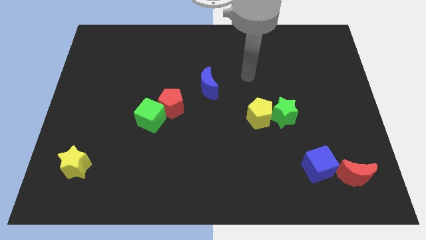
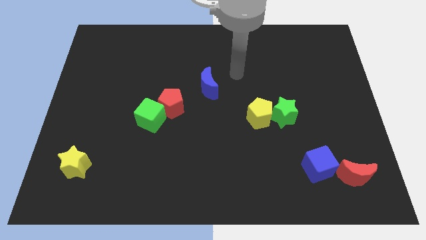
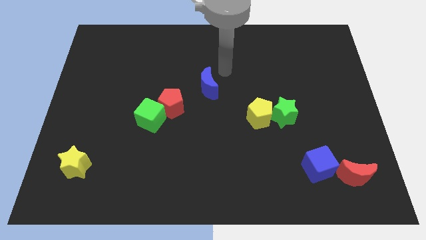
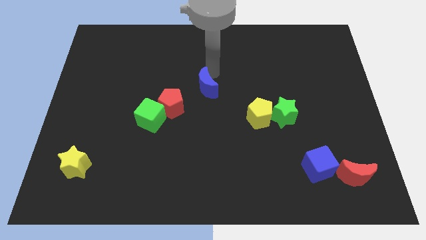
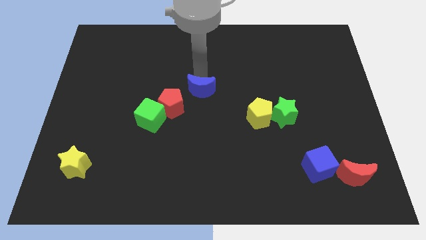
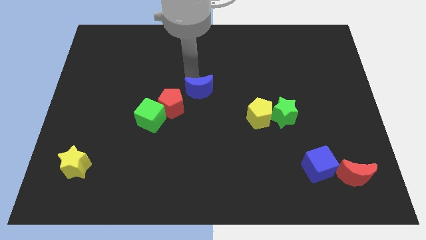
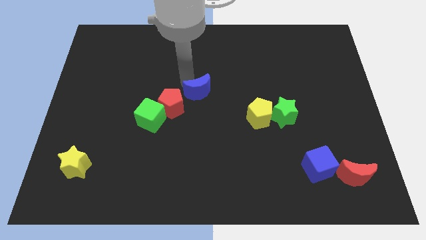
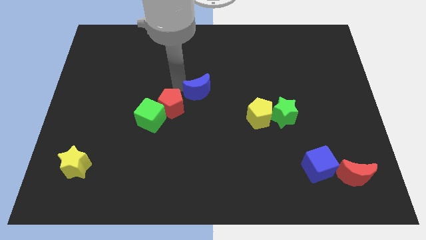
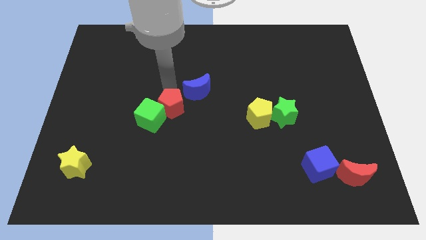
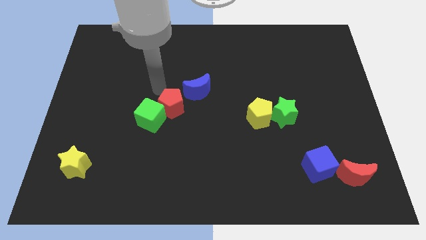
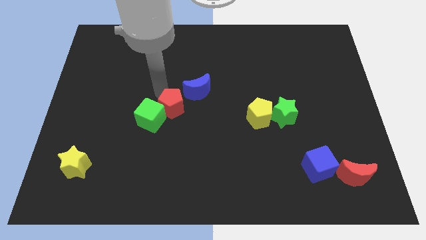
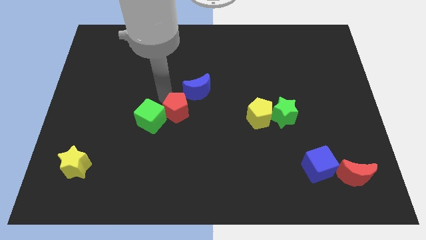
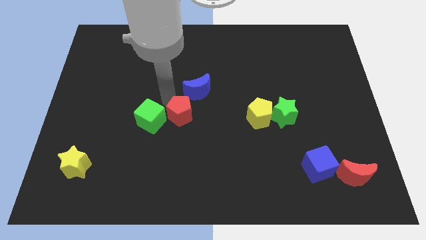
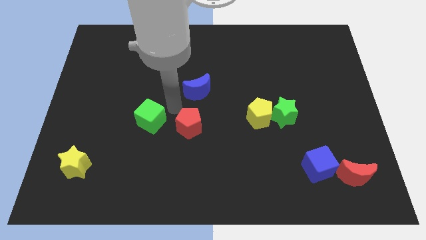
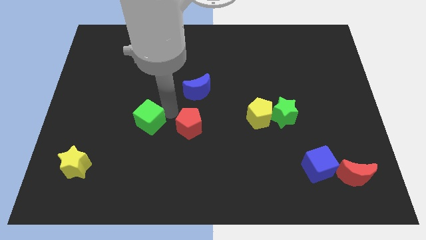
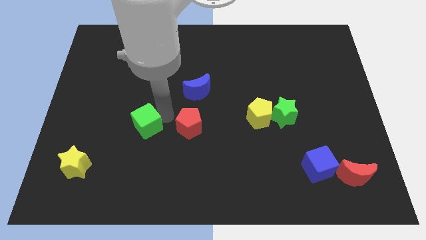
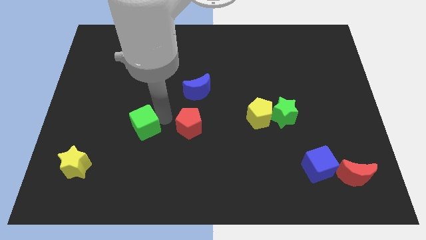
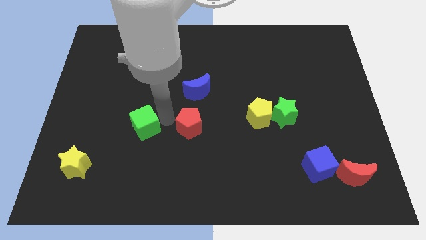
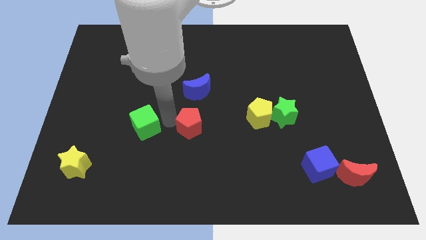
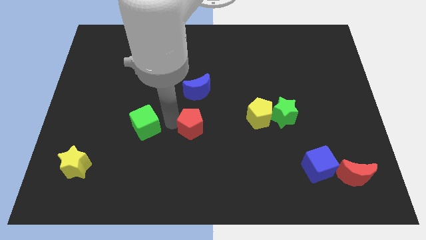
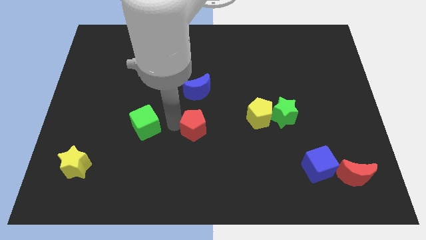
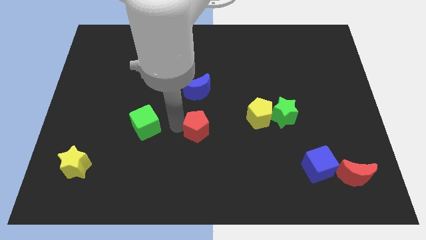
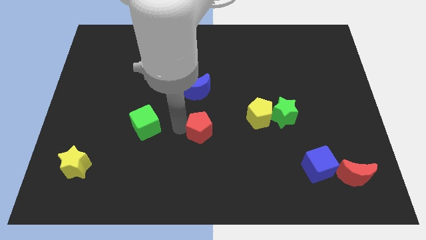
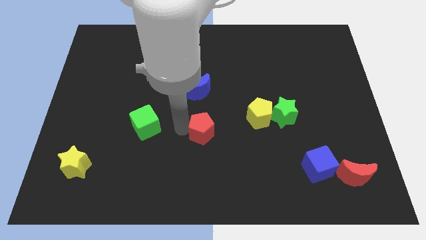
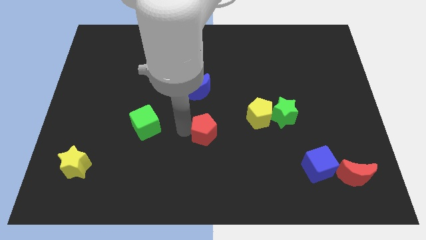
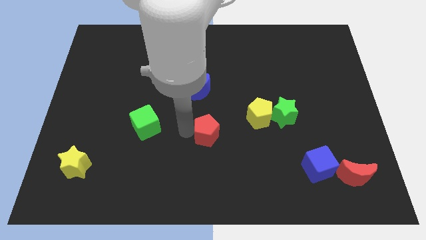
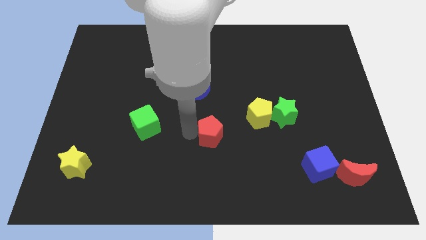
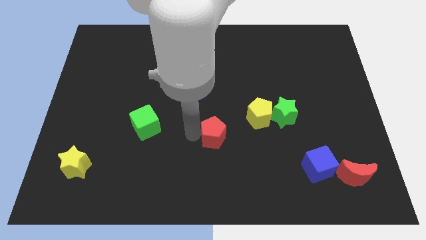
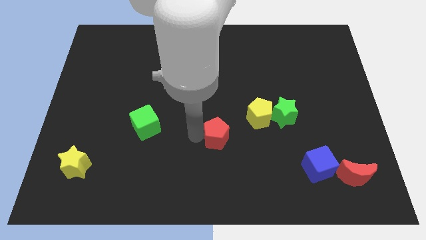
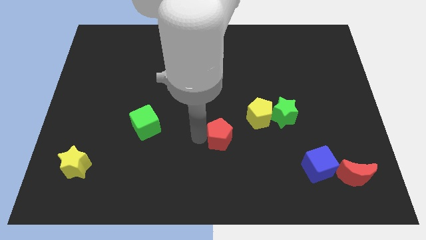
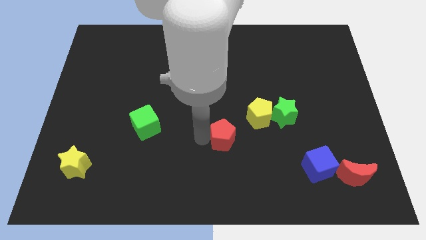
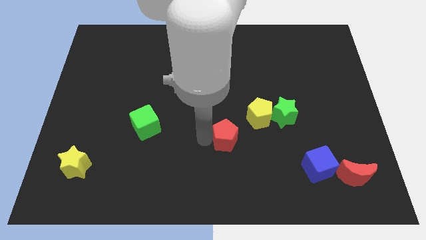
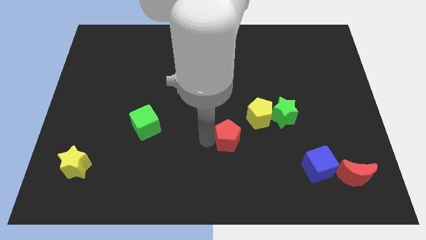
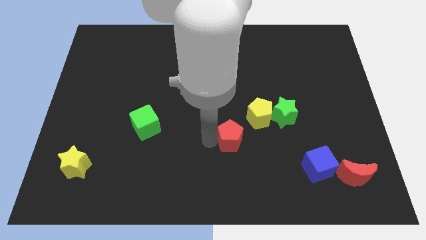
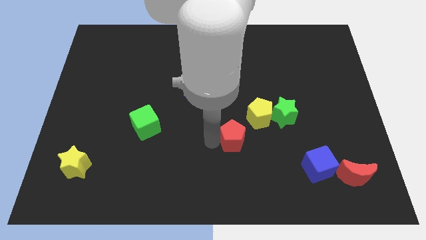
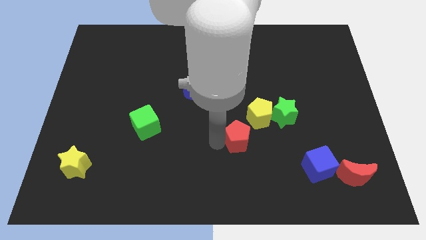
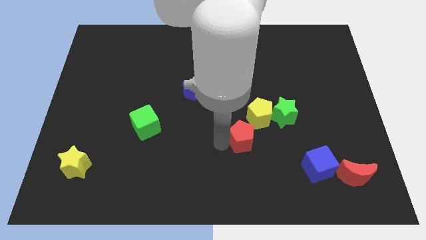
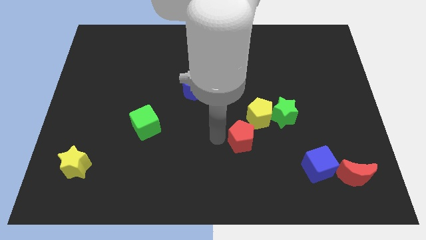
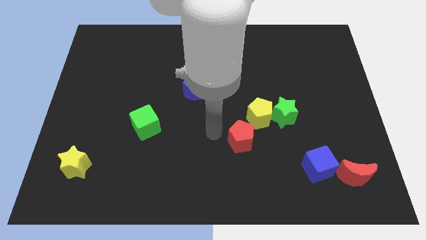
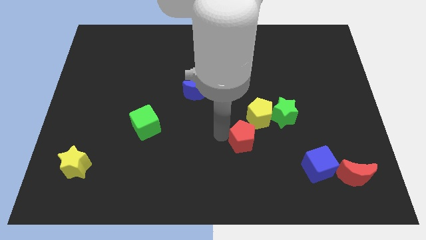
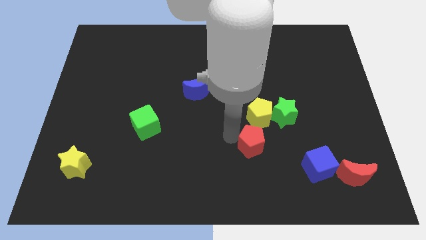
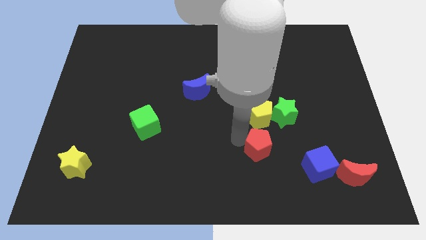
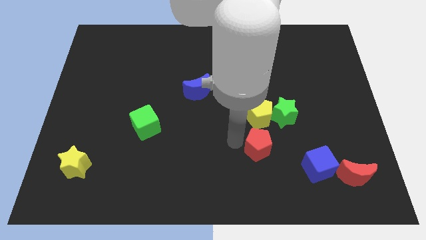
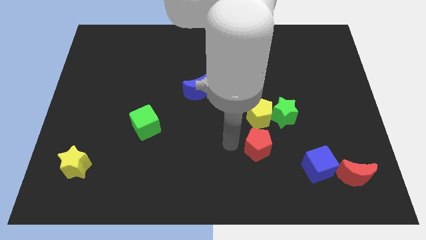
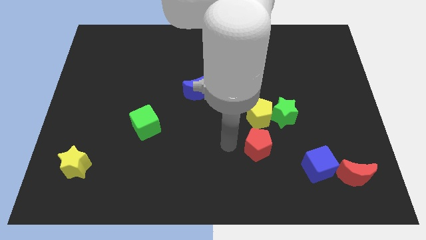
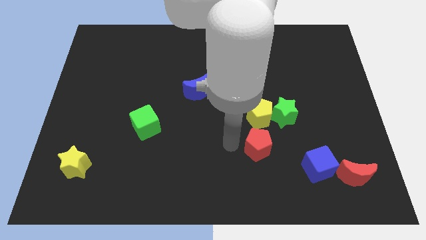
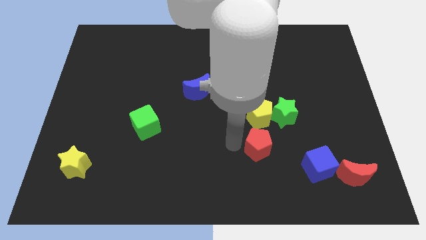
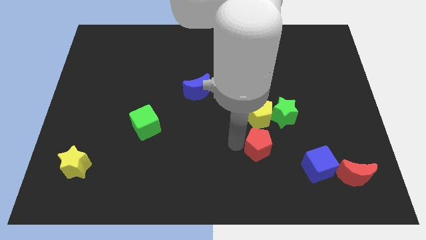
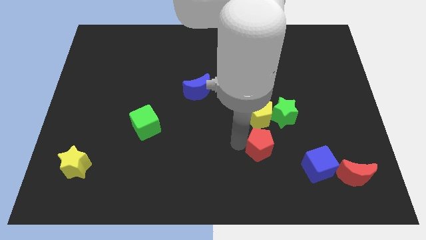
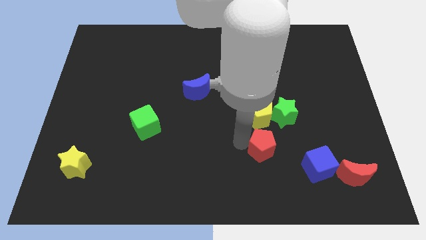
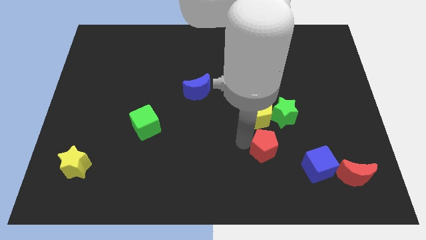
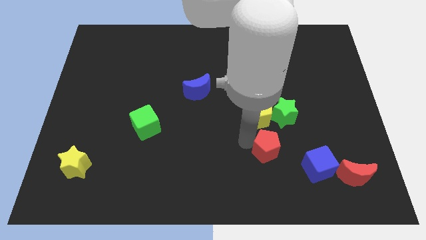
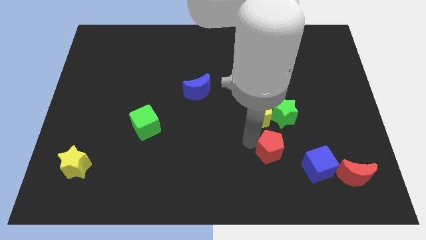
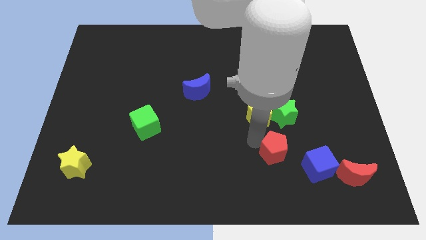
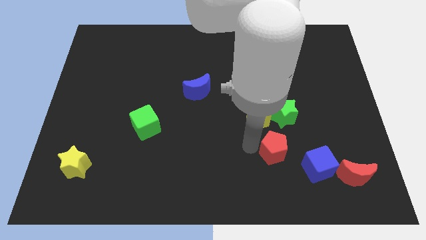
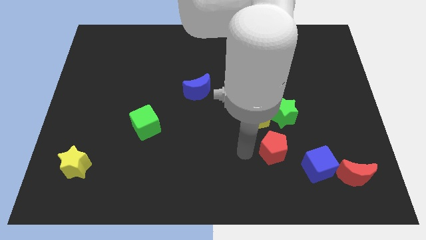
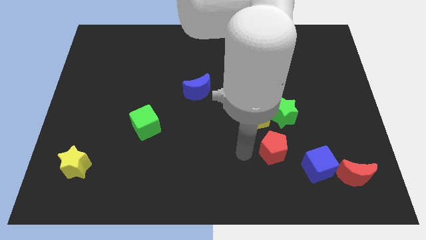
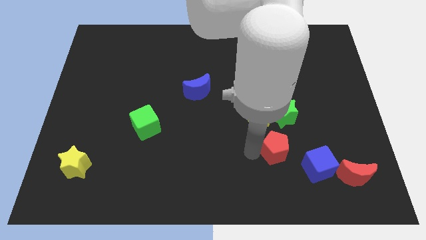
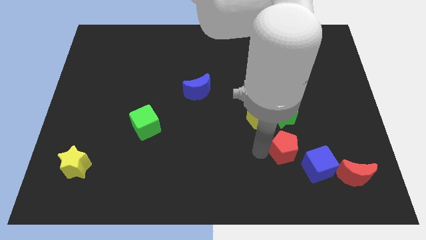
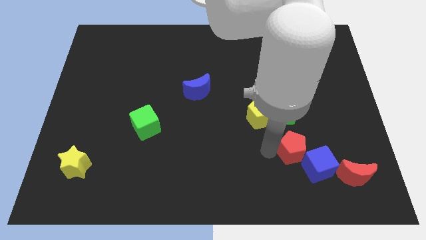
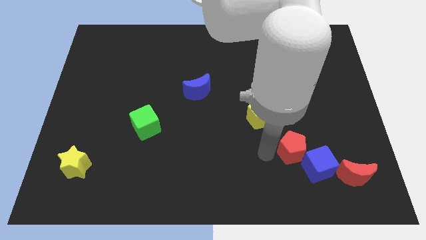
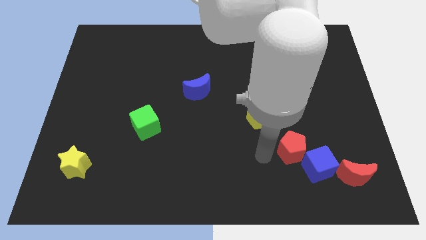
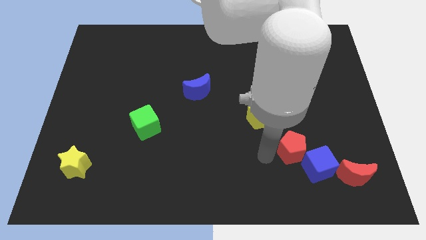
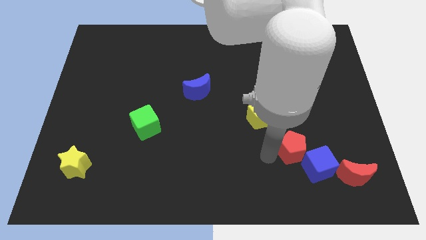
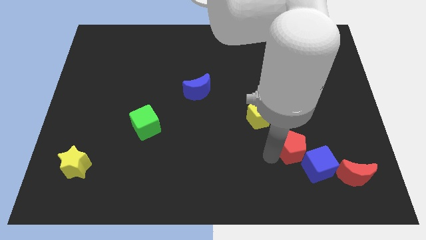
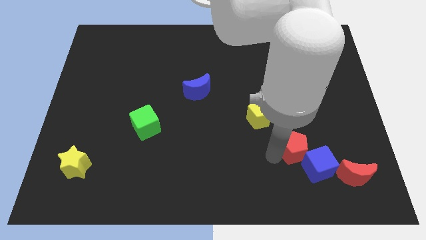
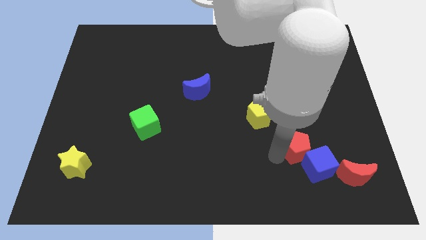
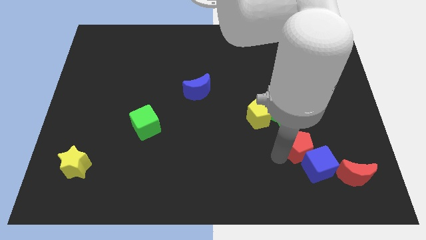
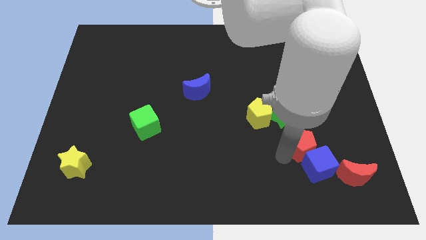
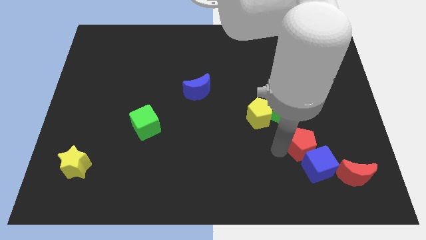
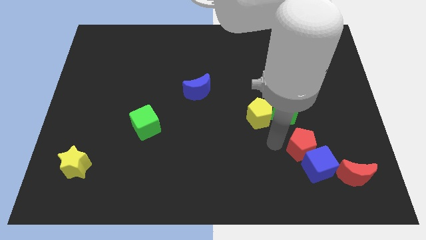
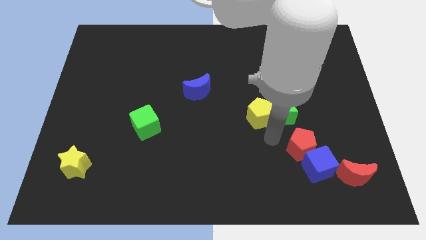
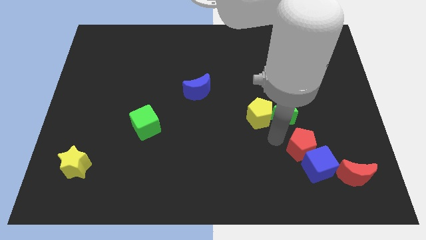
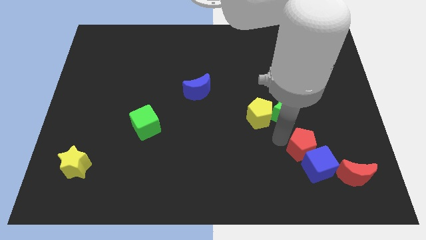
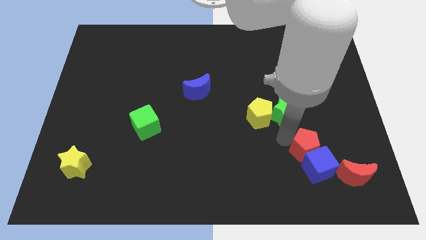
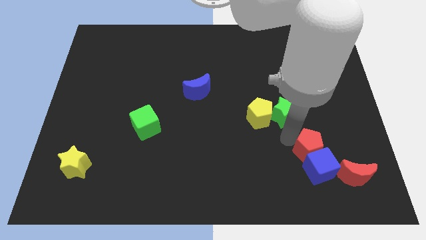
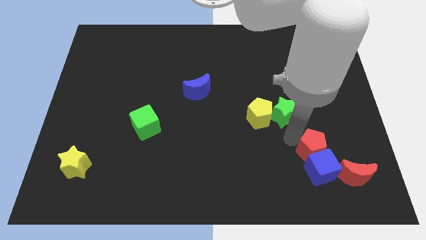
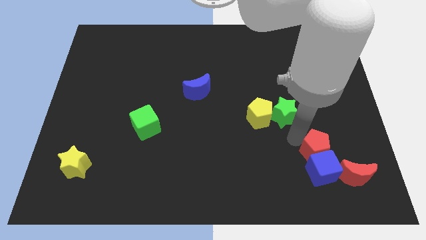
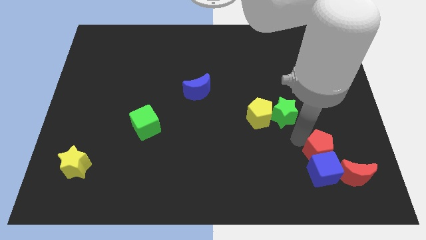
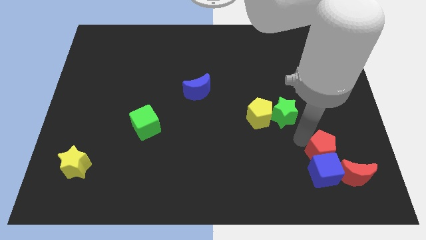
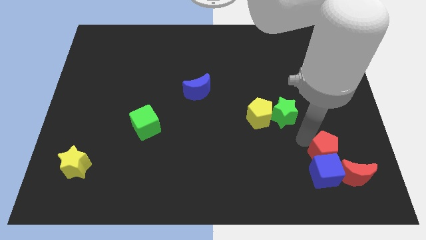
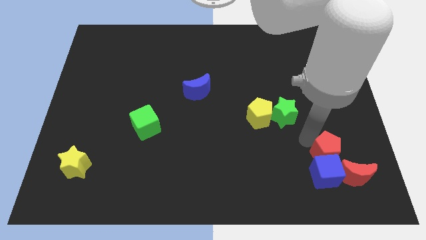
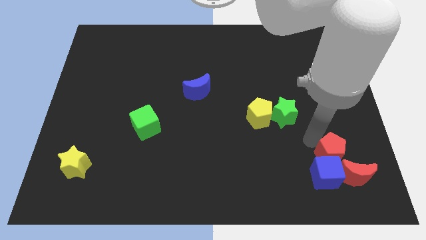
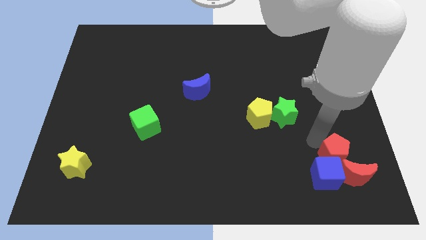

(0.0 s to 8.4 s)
push the red pentagon towards the red moon
